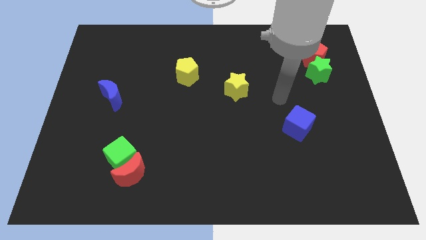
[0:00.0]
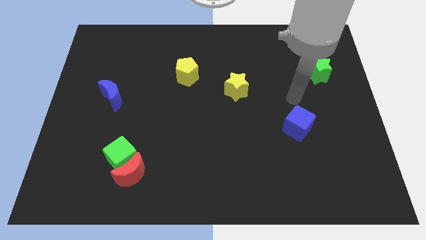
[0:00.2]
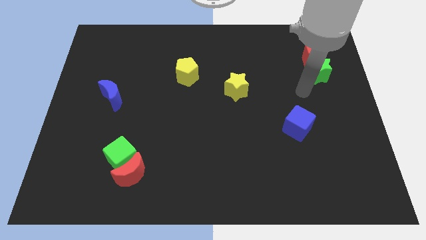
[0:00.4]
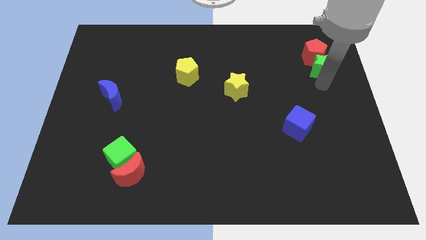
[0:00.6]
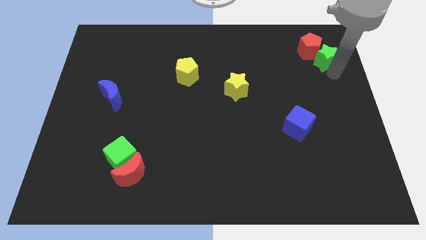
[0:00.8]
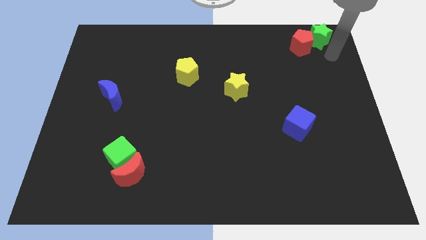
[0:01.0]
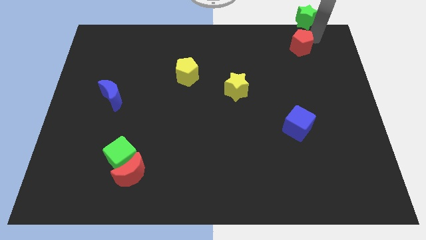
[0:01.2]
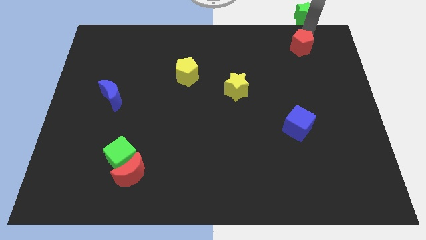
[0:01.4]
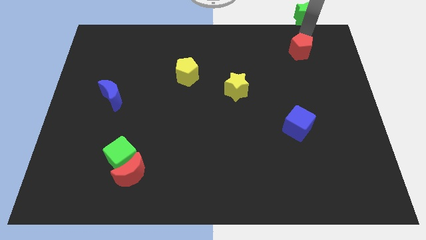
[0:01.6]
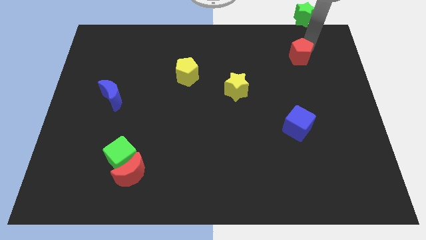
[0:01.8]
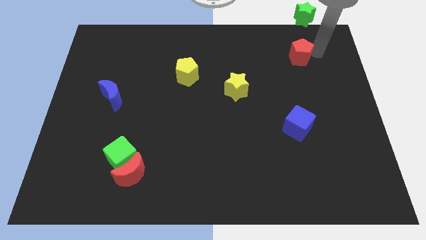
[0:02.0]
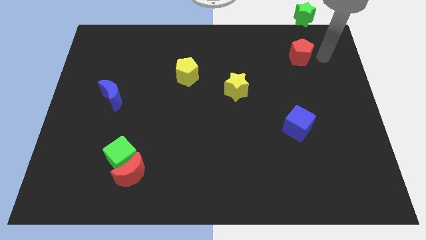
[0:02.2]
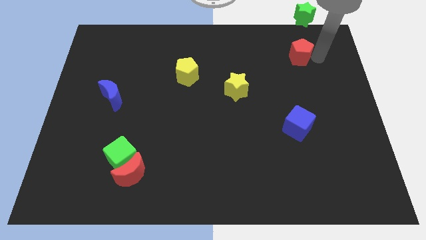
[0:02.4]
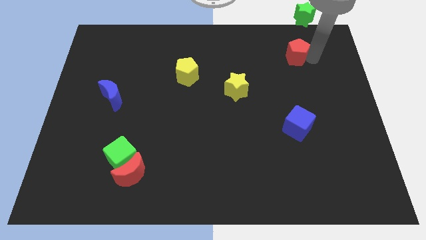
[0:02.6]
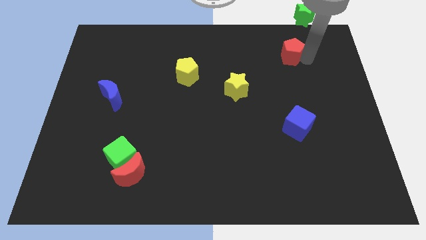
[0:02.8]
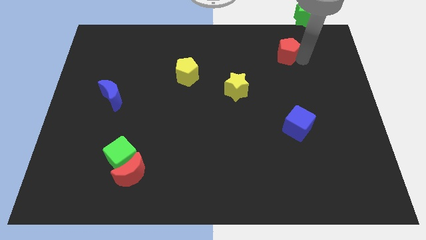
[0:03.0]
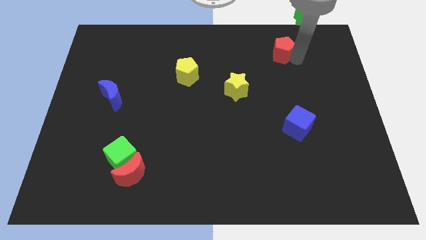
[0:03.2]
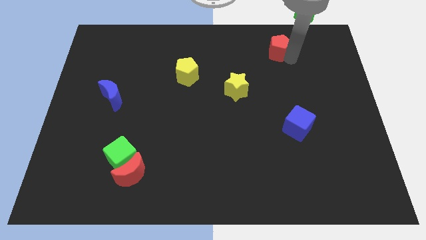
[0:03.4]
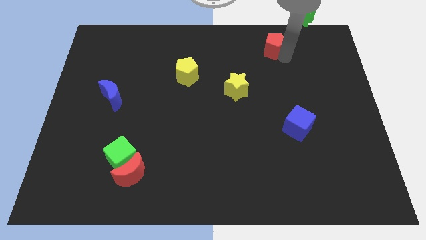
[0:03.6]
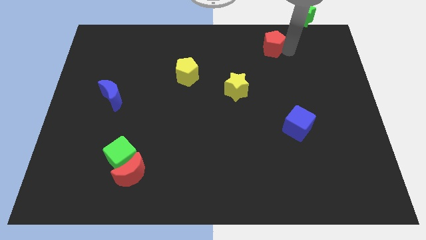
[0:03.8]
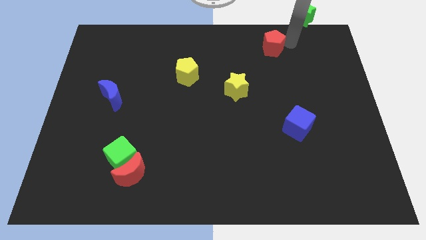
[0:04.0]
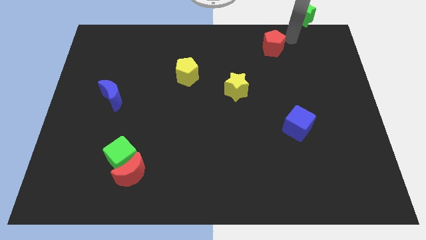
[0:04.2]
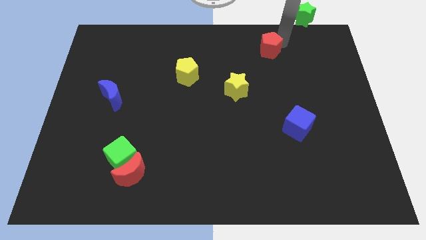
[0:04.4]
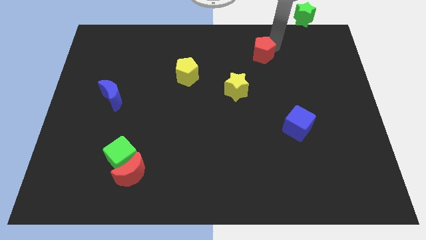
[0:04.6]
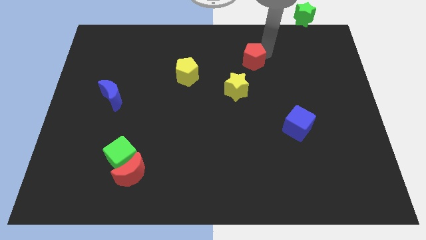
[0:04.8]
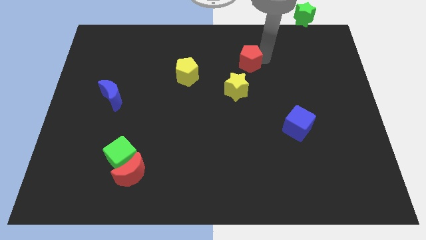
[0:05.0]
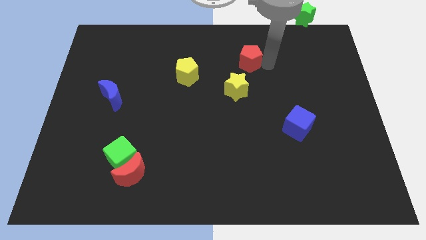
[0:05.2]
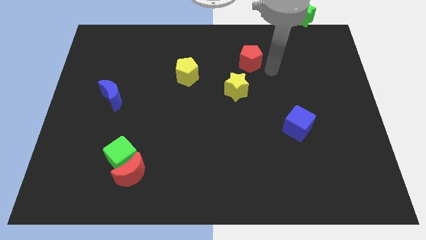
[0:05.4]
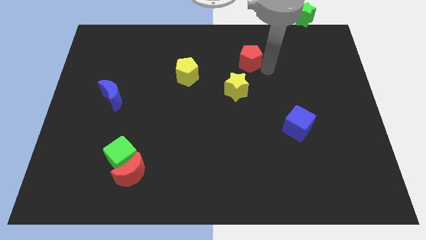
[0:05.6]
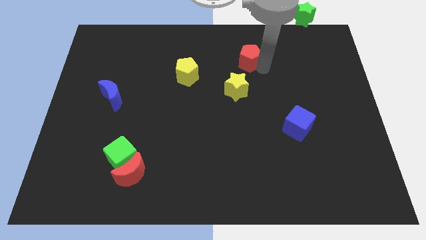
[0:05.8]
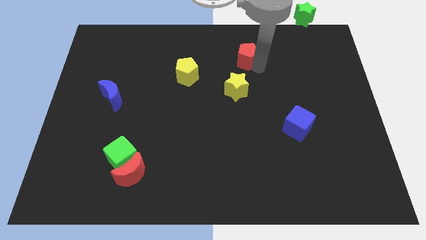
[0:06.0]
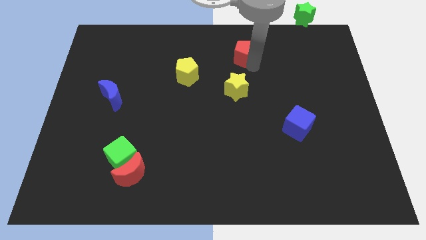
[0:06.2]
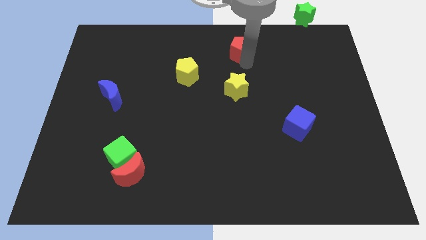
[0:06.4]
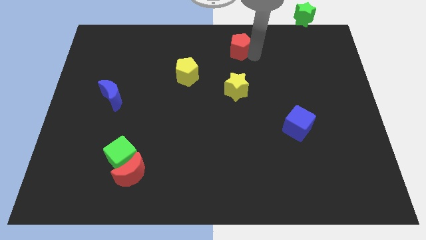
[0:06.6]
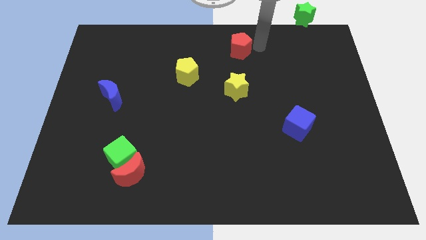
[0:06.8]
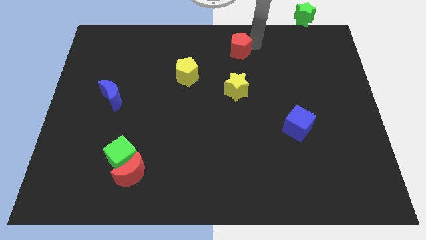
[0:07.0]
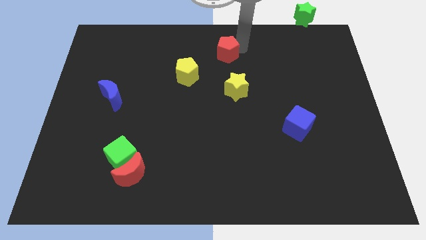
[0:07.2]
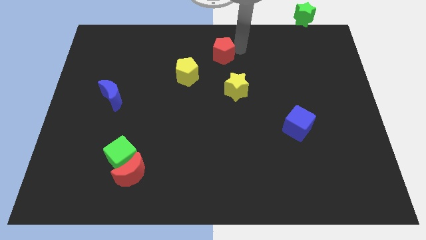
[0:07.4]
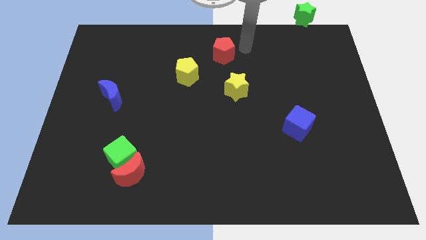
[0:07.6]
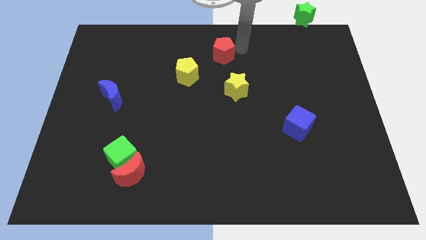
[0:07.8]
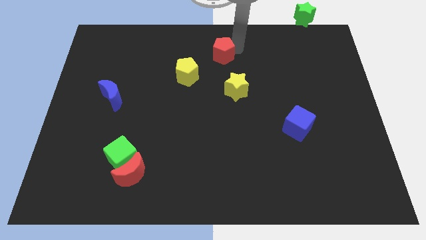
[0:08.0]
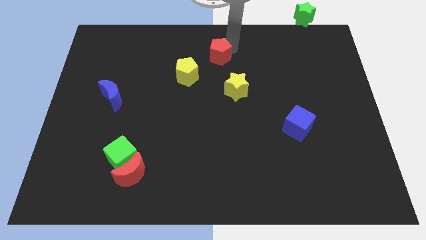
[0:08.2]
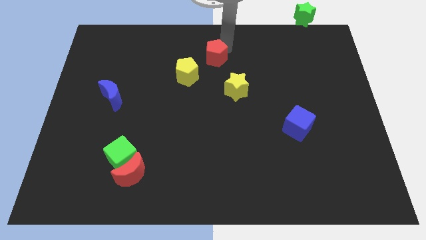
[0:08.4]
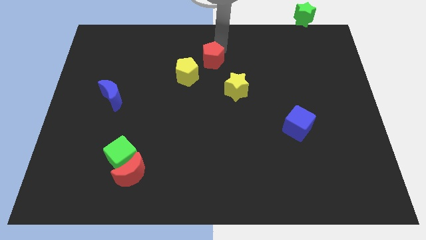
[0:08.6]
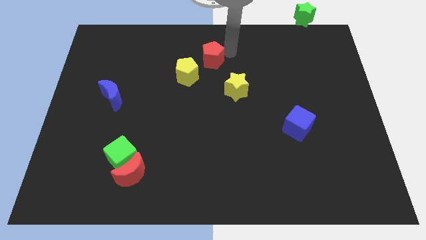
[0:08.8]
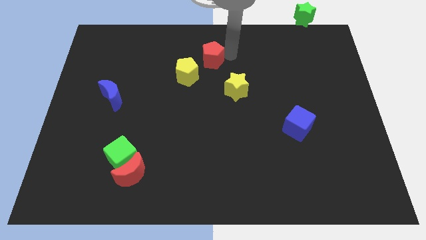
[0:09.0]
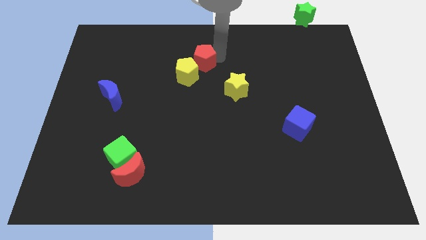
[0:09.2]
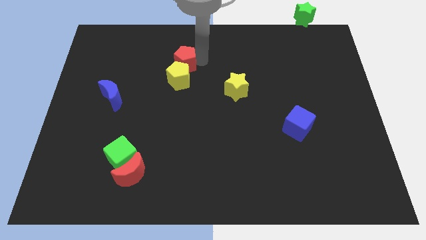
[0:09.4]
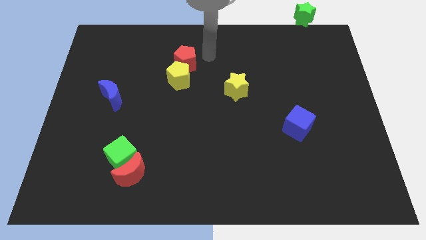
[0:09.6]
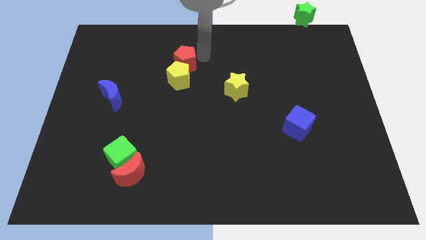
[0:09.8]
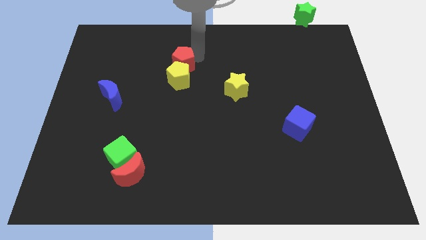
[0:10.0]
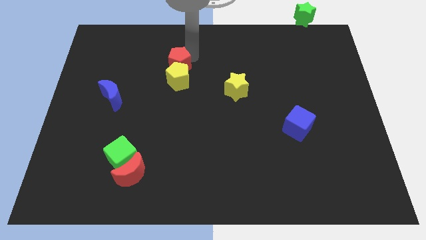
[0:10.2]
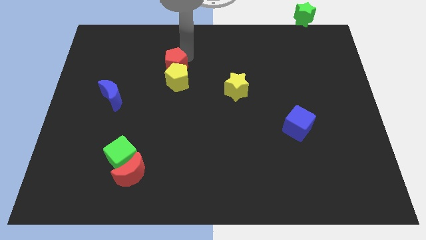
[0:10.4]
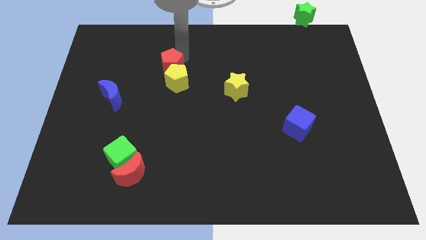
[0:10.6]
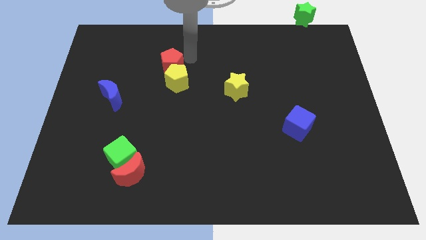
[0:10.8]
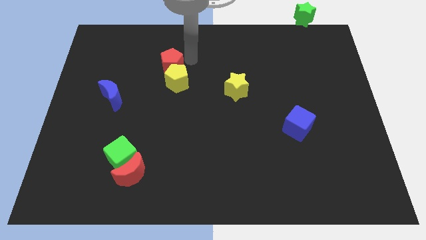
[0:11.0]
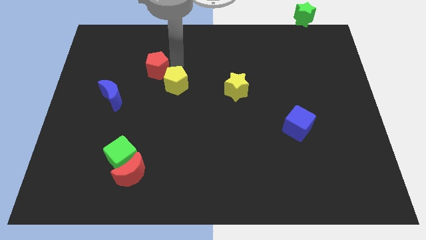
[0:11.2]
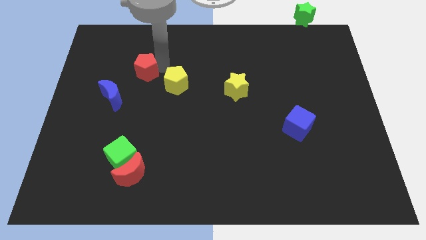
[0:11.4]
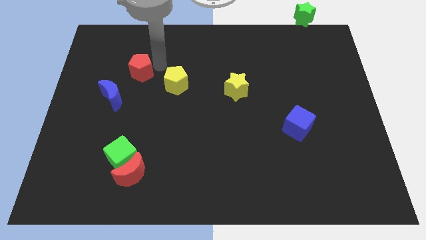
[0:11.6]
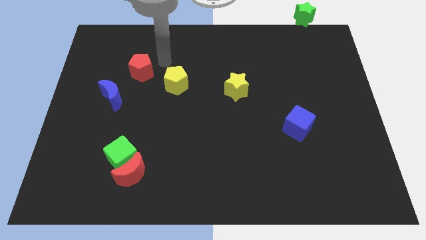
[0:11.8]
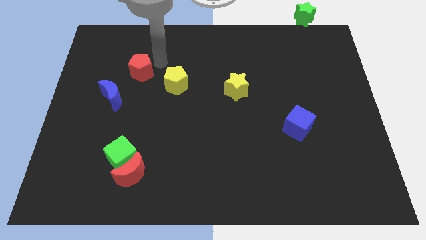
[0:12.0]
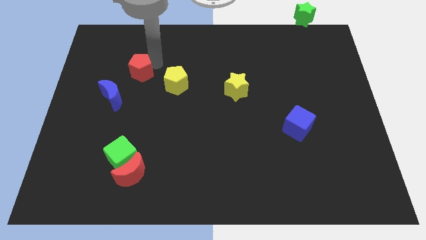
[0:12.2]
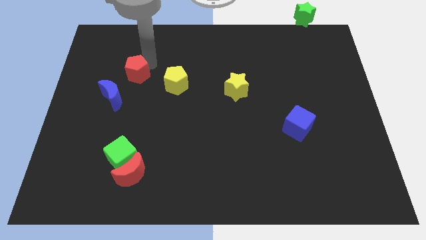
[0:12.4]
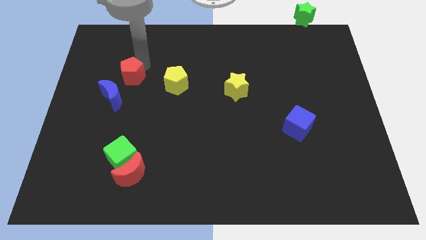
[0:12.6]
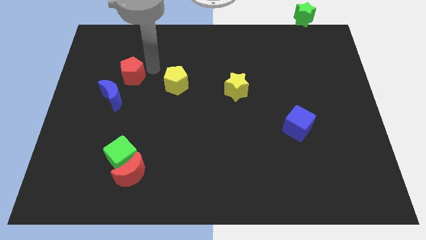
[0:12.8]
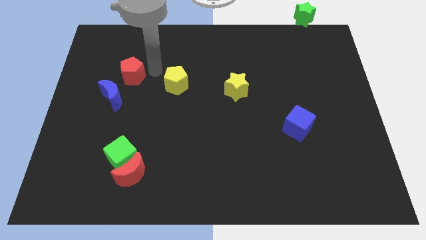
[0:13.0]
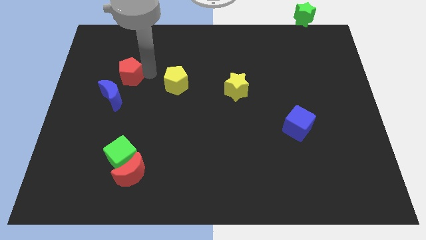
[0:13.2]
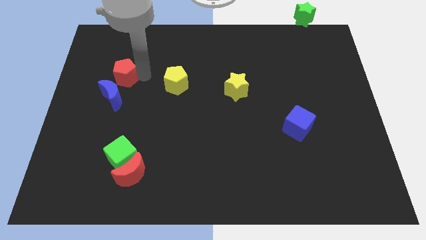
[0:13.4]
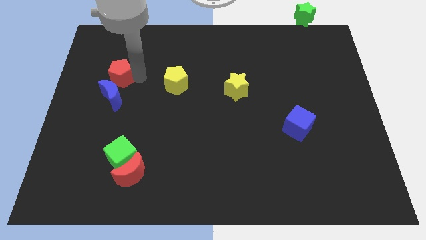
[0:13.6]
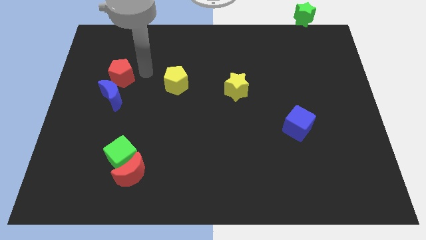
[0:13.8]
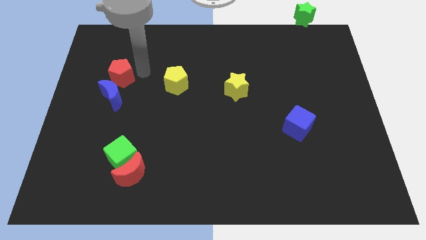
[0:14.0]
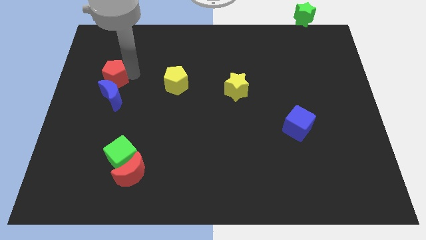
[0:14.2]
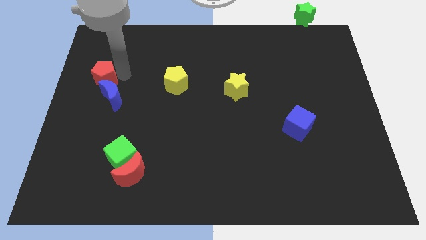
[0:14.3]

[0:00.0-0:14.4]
slide the red pentagon to the center left
